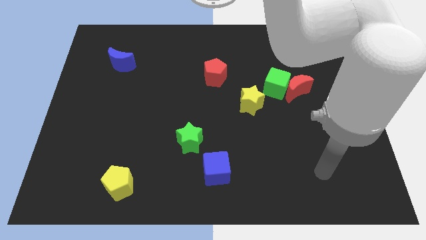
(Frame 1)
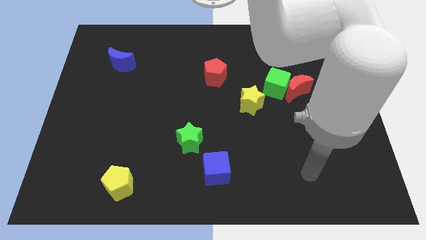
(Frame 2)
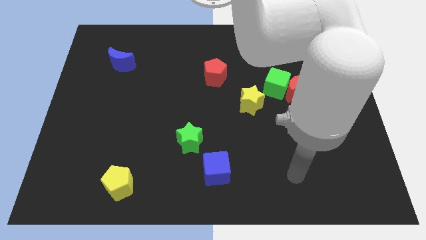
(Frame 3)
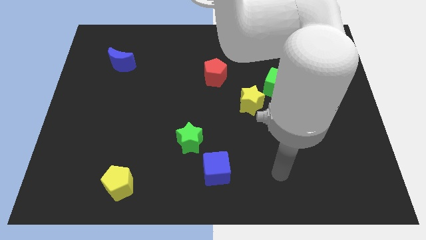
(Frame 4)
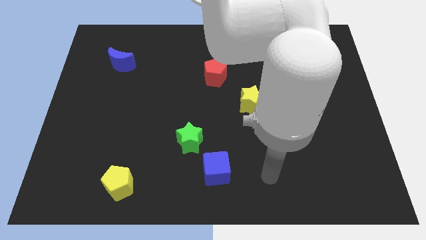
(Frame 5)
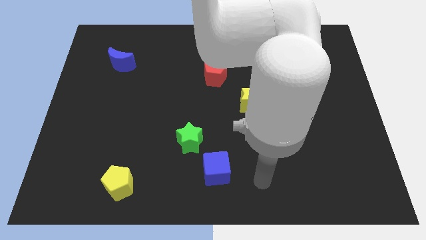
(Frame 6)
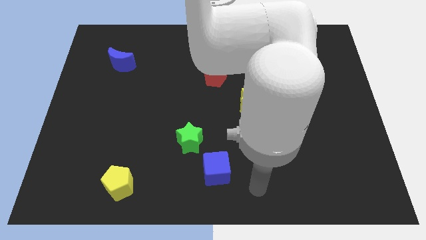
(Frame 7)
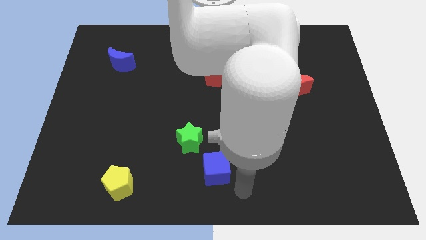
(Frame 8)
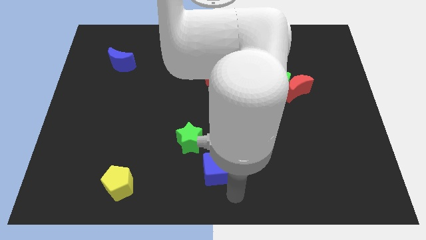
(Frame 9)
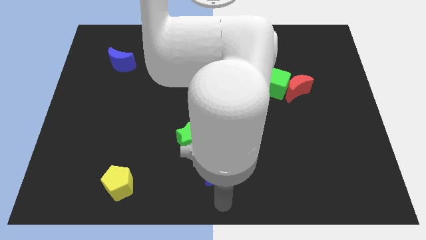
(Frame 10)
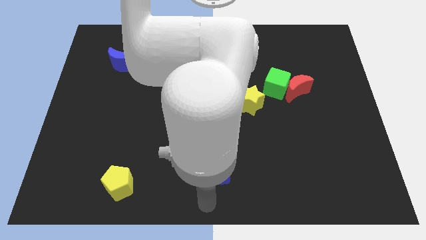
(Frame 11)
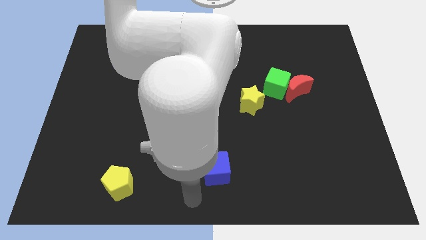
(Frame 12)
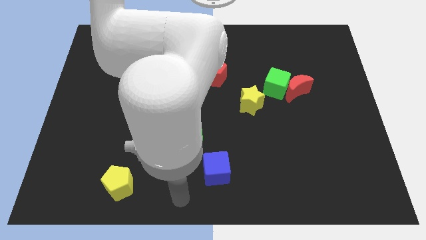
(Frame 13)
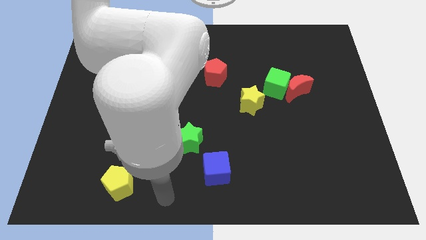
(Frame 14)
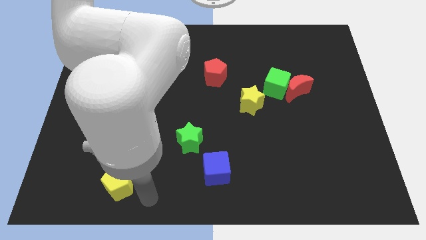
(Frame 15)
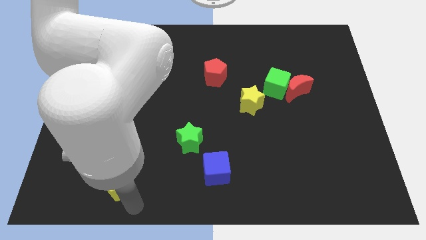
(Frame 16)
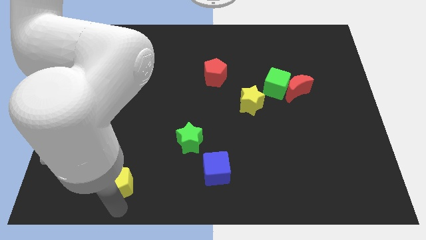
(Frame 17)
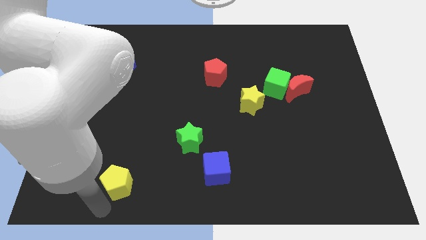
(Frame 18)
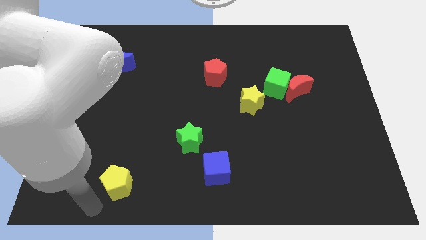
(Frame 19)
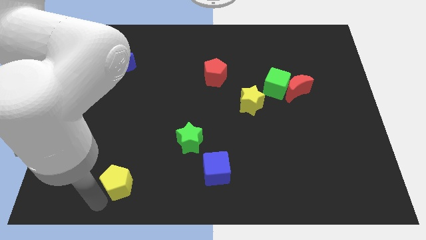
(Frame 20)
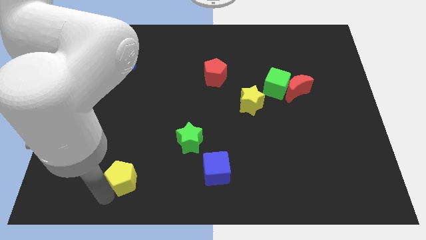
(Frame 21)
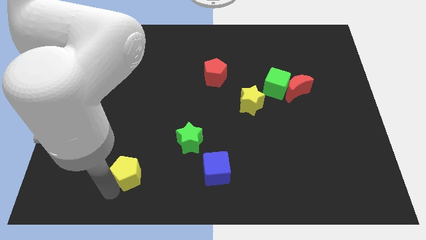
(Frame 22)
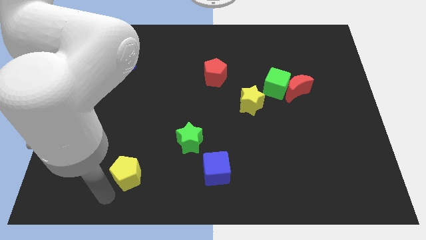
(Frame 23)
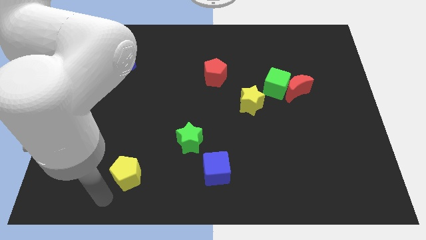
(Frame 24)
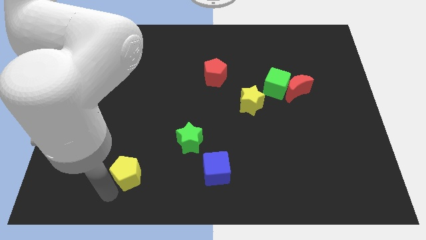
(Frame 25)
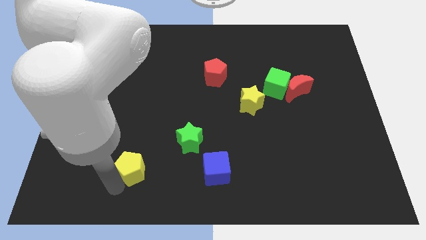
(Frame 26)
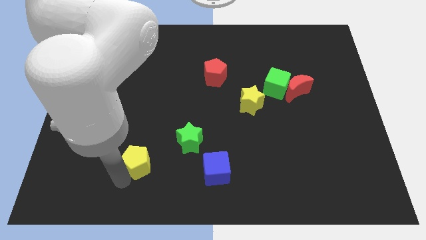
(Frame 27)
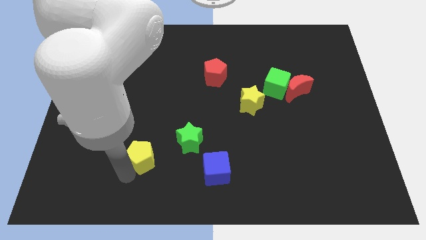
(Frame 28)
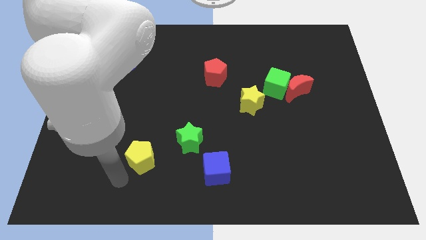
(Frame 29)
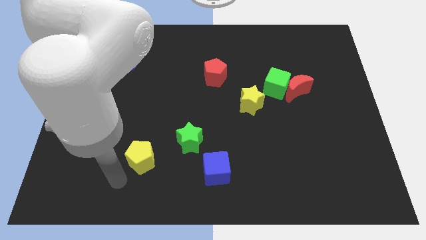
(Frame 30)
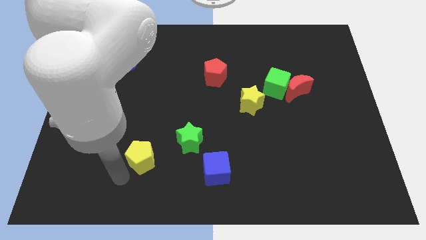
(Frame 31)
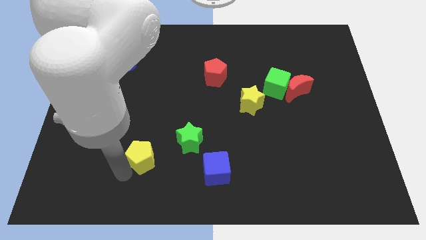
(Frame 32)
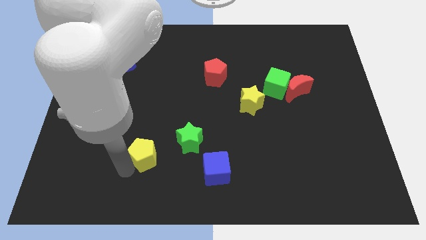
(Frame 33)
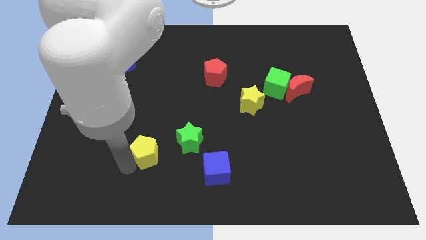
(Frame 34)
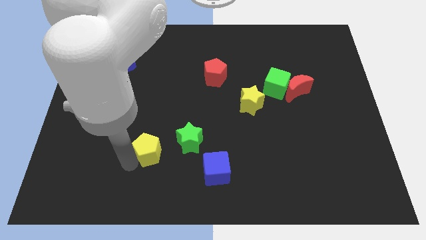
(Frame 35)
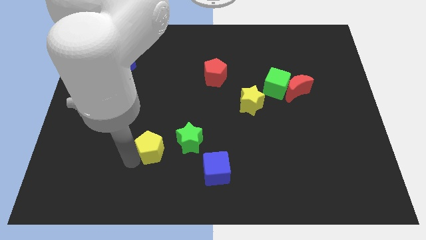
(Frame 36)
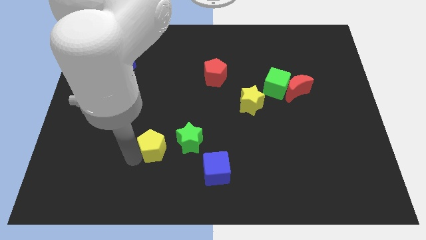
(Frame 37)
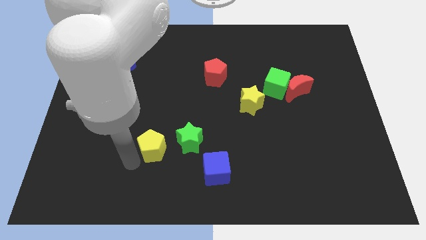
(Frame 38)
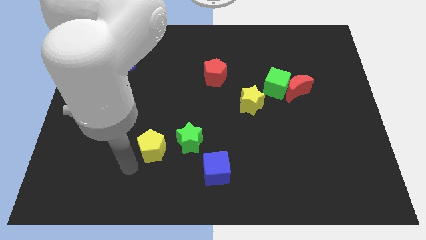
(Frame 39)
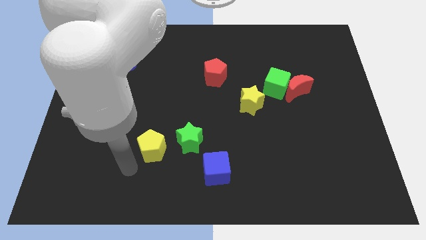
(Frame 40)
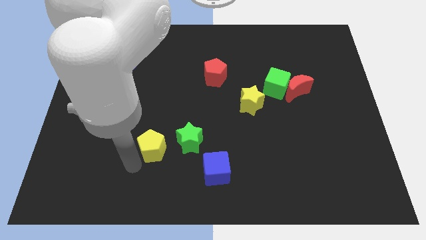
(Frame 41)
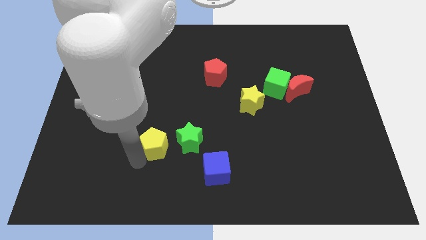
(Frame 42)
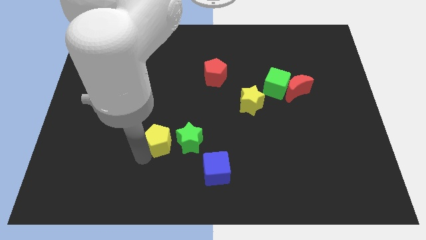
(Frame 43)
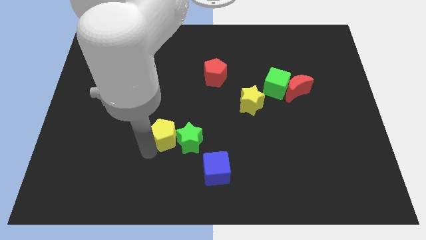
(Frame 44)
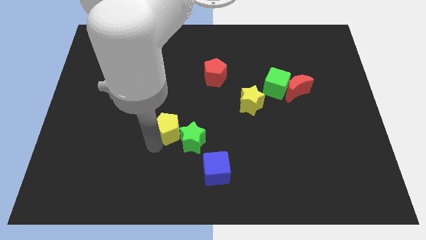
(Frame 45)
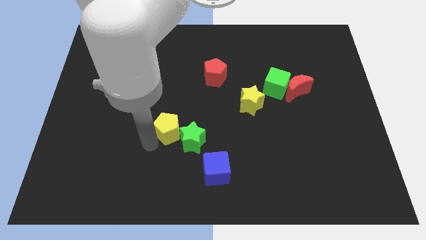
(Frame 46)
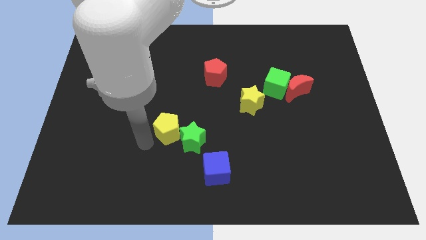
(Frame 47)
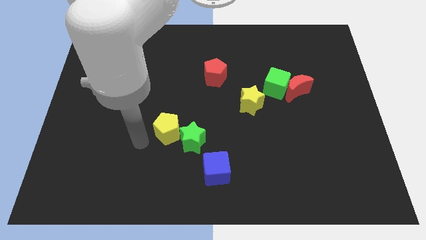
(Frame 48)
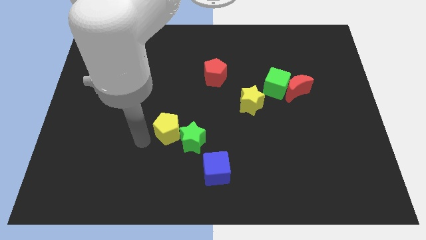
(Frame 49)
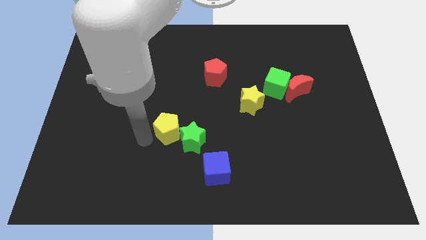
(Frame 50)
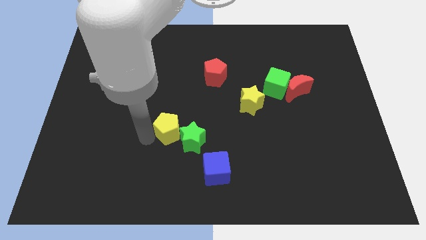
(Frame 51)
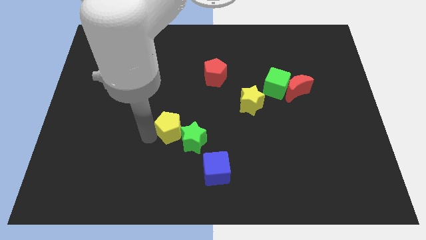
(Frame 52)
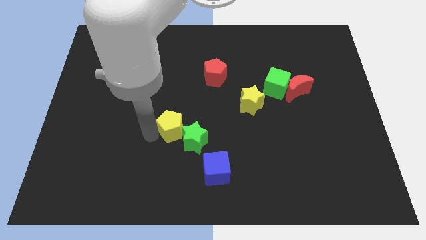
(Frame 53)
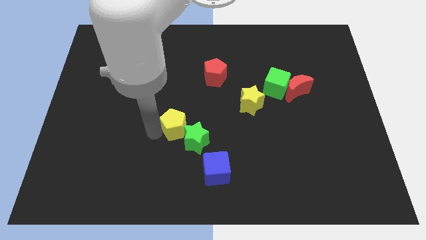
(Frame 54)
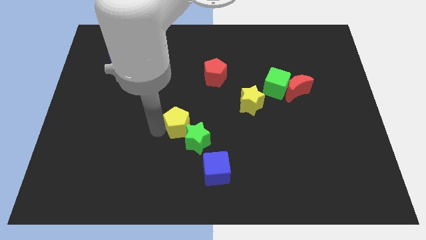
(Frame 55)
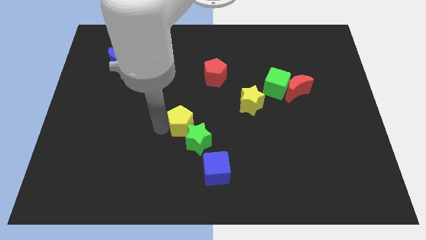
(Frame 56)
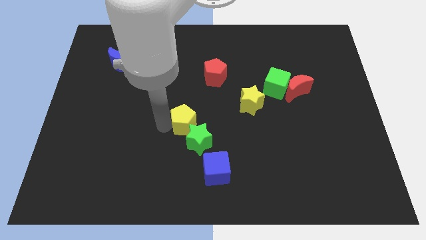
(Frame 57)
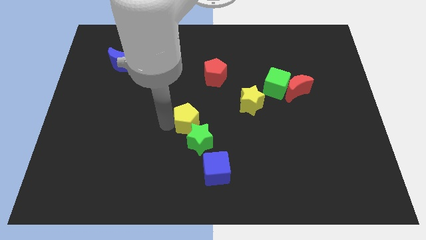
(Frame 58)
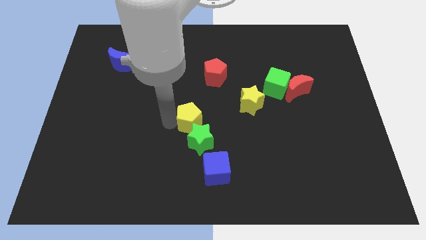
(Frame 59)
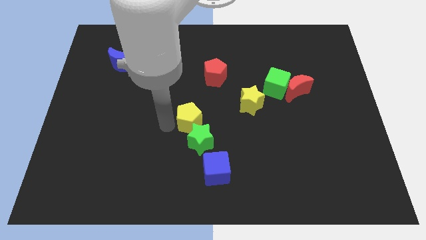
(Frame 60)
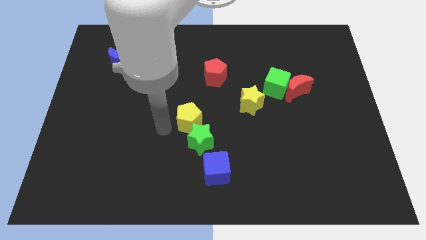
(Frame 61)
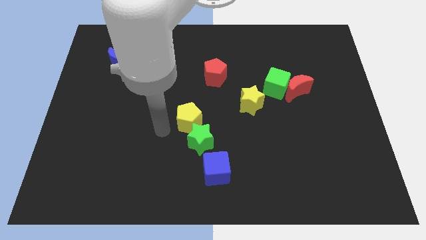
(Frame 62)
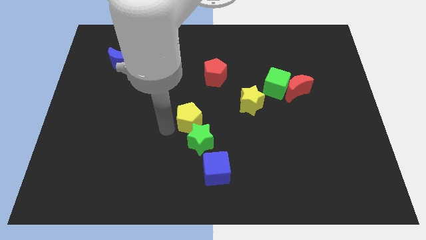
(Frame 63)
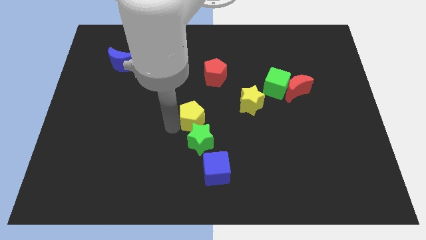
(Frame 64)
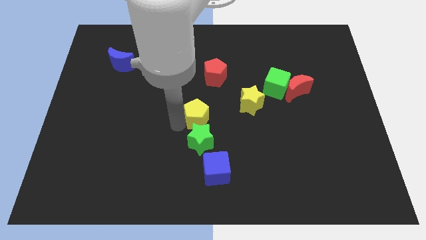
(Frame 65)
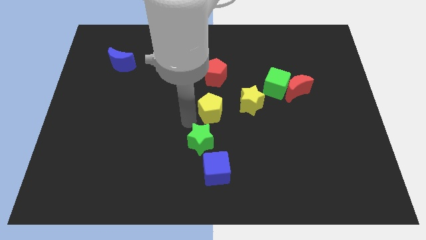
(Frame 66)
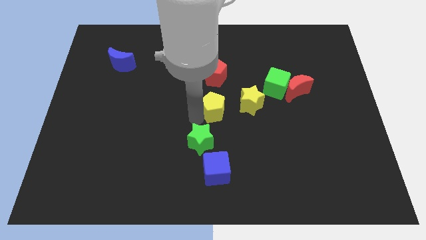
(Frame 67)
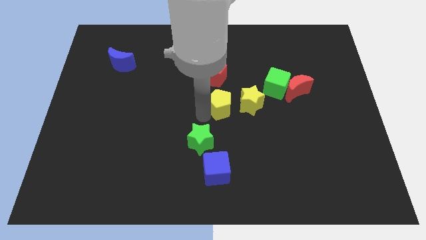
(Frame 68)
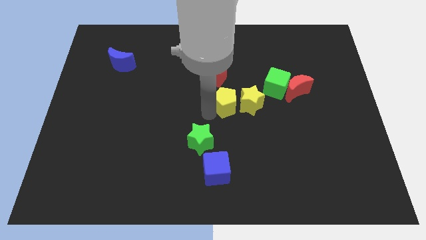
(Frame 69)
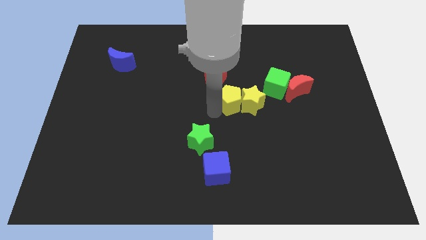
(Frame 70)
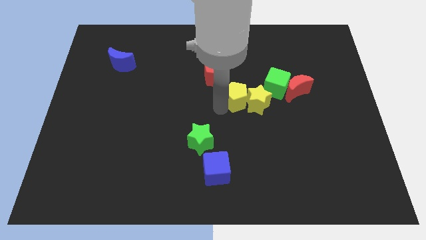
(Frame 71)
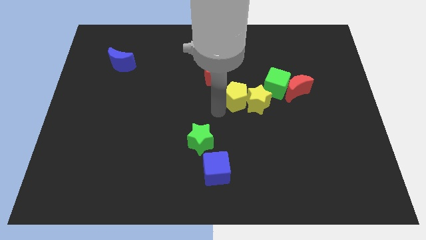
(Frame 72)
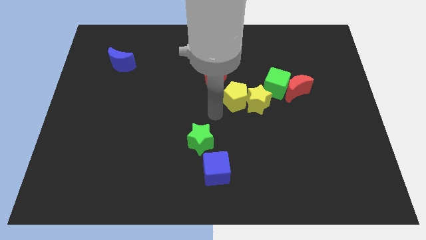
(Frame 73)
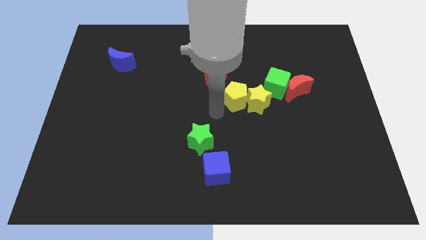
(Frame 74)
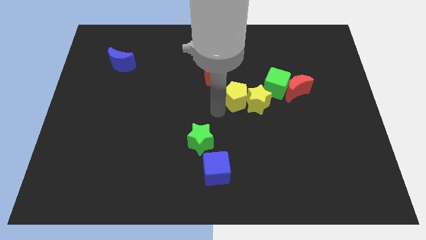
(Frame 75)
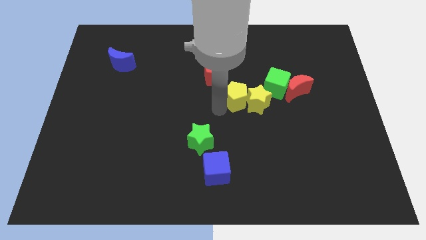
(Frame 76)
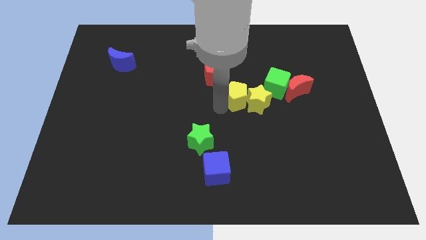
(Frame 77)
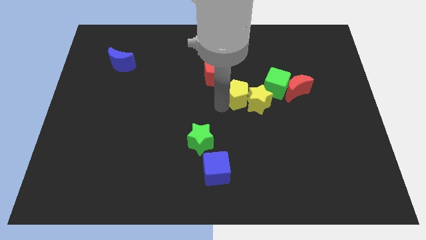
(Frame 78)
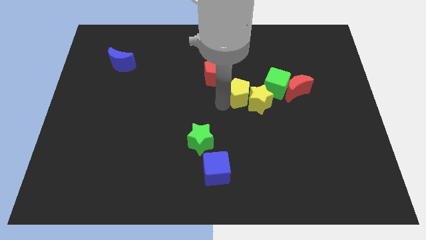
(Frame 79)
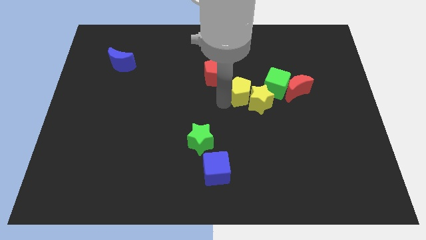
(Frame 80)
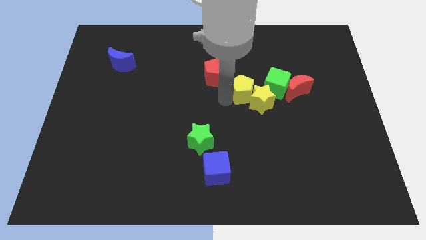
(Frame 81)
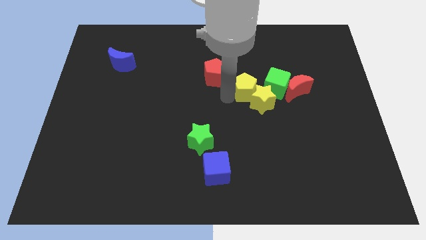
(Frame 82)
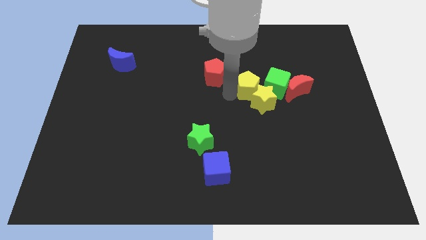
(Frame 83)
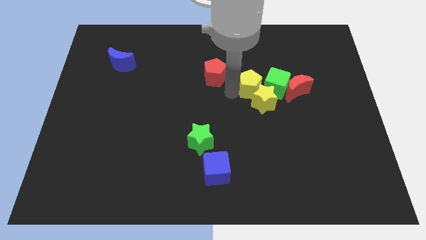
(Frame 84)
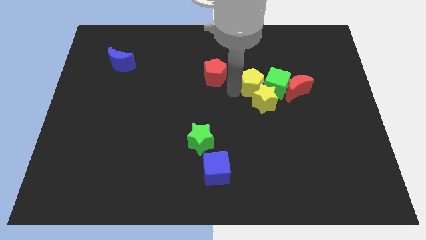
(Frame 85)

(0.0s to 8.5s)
move the yellow pentagon to the green cube
